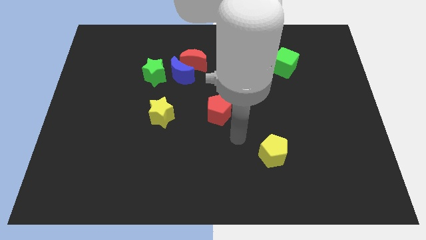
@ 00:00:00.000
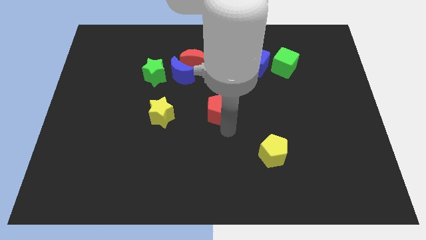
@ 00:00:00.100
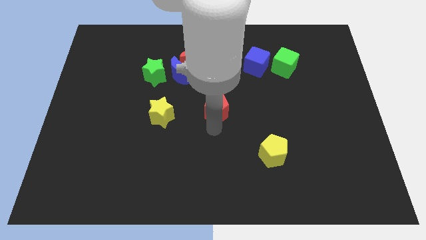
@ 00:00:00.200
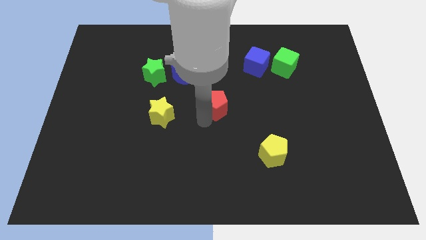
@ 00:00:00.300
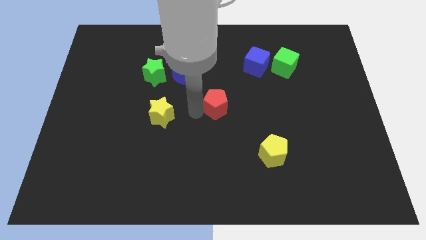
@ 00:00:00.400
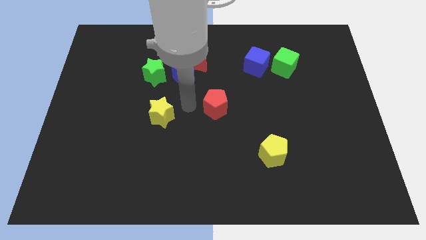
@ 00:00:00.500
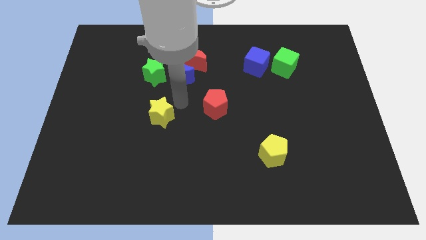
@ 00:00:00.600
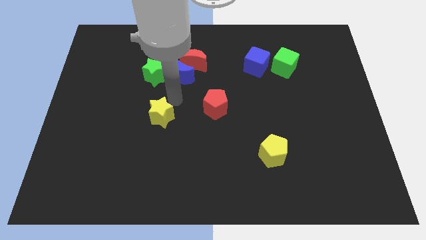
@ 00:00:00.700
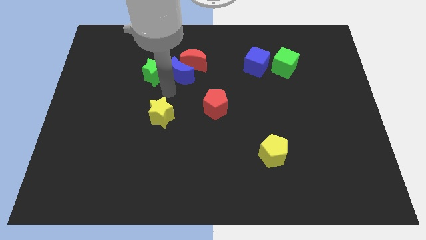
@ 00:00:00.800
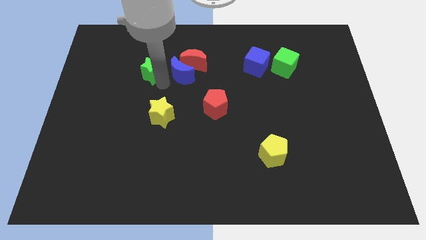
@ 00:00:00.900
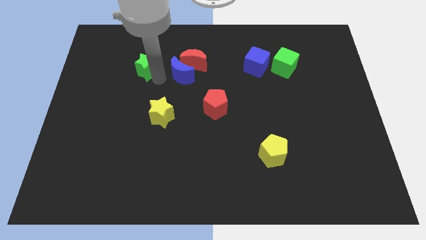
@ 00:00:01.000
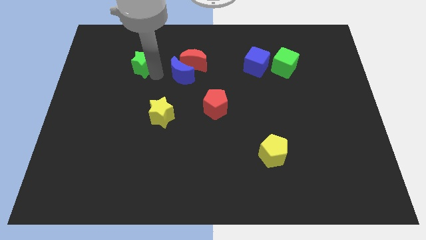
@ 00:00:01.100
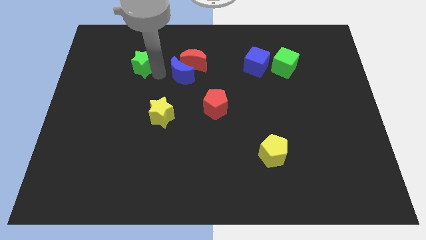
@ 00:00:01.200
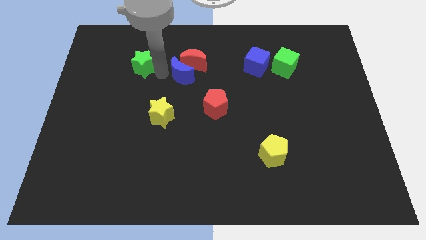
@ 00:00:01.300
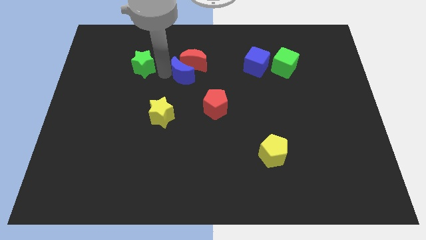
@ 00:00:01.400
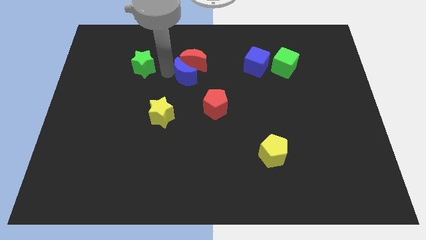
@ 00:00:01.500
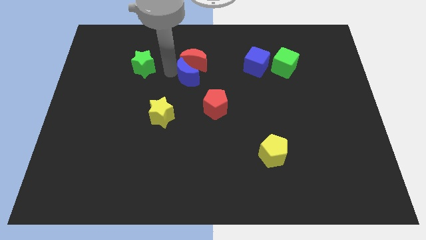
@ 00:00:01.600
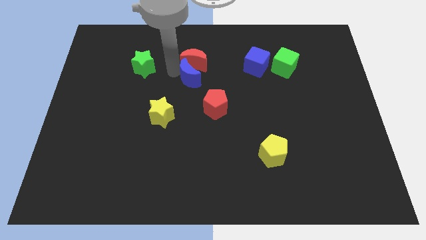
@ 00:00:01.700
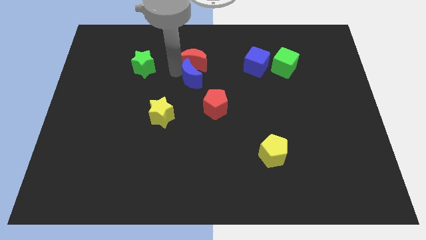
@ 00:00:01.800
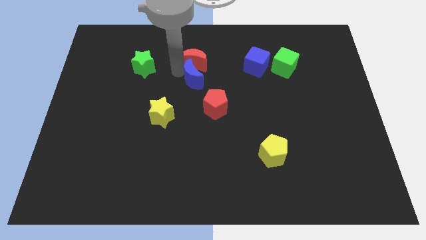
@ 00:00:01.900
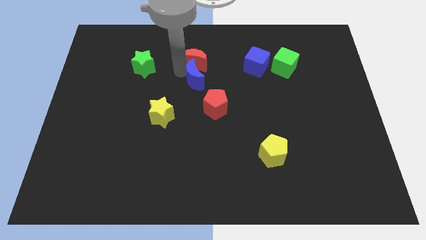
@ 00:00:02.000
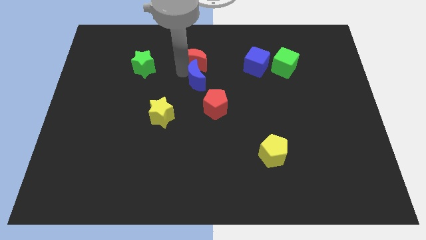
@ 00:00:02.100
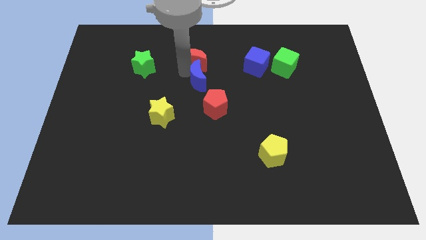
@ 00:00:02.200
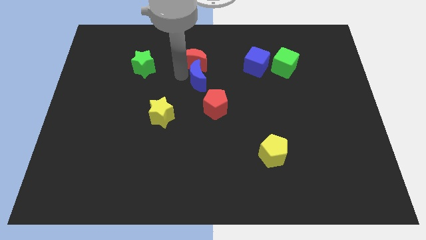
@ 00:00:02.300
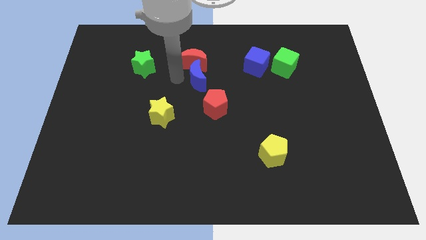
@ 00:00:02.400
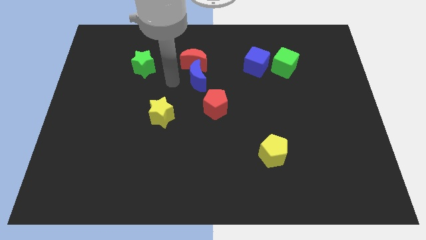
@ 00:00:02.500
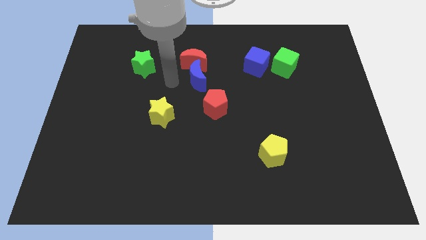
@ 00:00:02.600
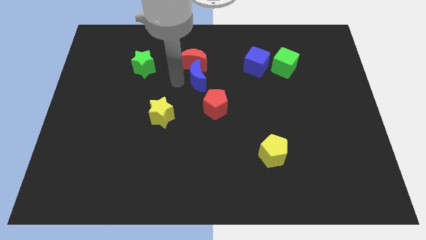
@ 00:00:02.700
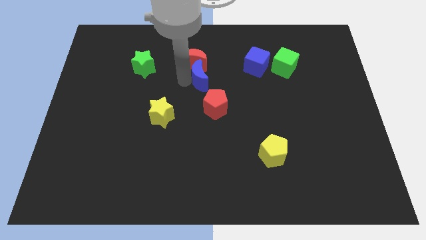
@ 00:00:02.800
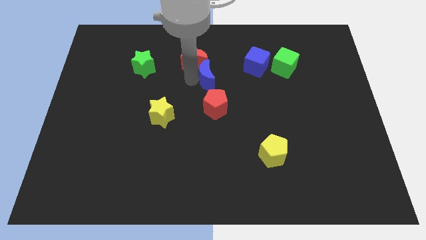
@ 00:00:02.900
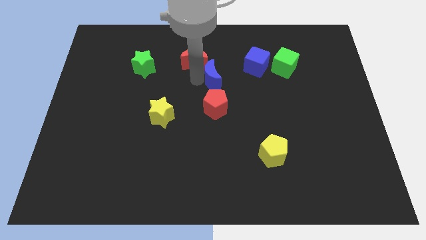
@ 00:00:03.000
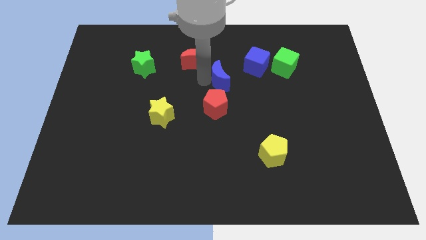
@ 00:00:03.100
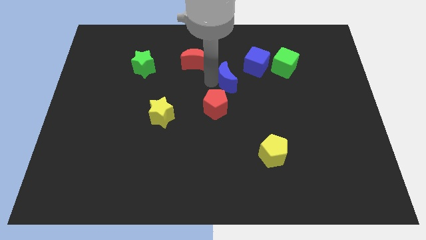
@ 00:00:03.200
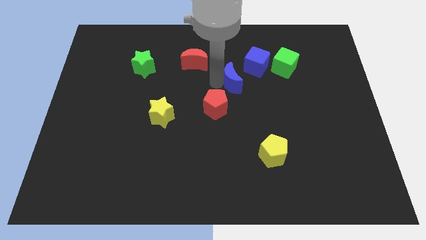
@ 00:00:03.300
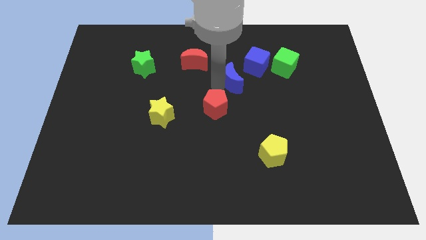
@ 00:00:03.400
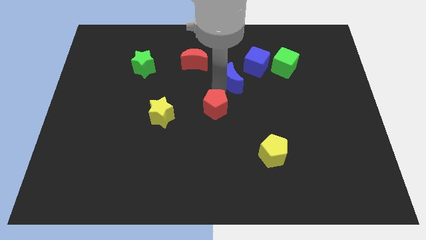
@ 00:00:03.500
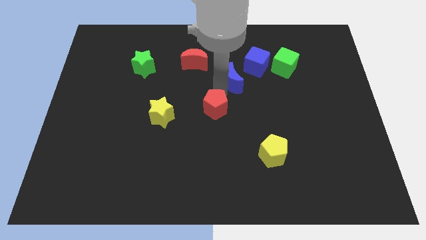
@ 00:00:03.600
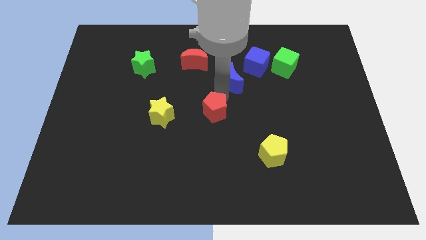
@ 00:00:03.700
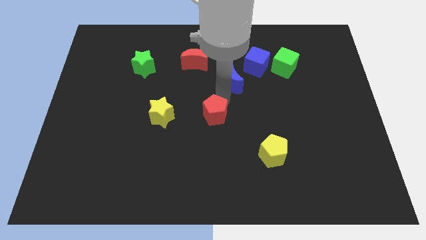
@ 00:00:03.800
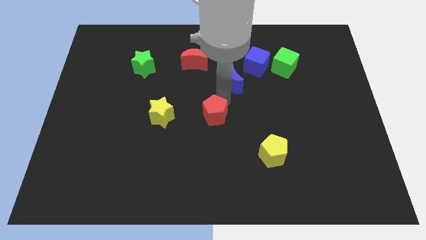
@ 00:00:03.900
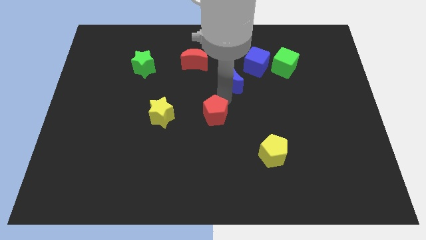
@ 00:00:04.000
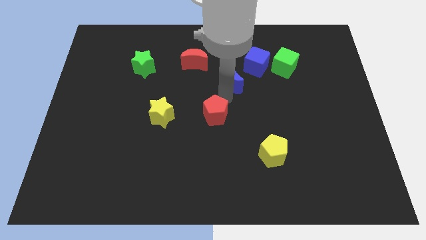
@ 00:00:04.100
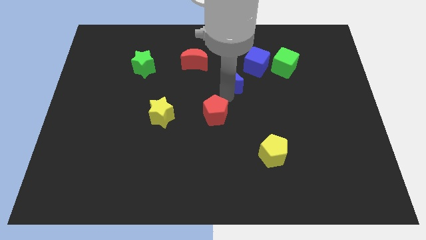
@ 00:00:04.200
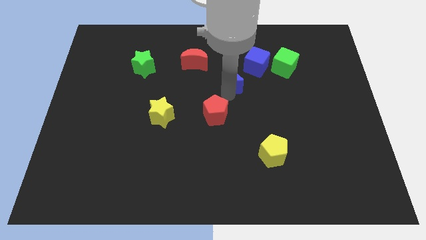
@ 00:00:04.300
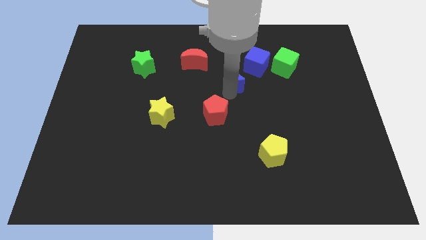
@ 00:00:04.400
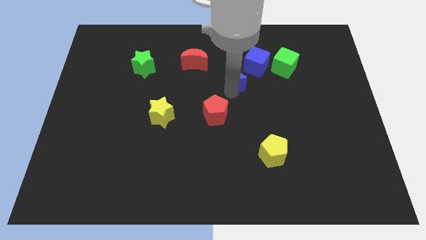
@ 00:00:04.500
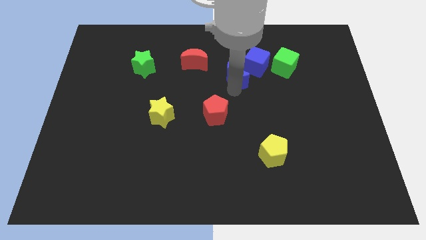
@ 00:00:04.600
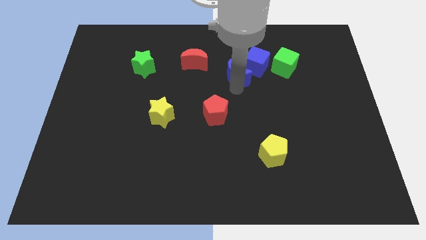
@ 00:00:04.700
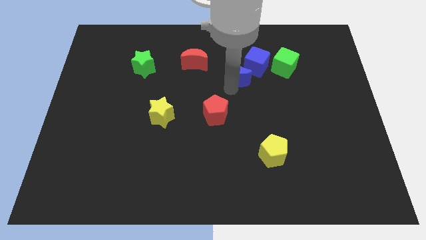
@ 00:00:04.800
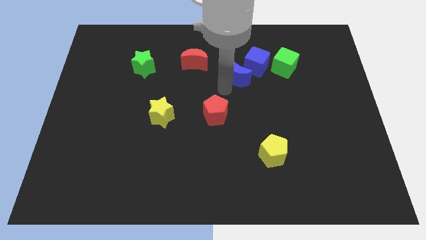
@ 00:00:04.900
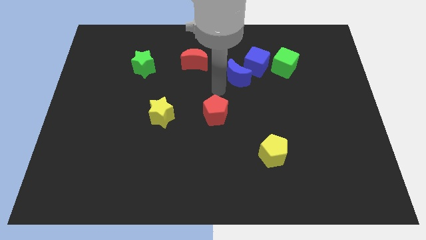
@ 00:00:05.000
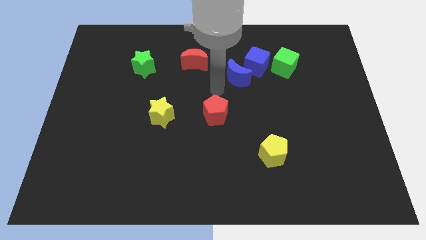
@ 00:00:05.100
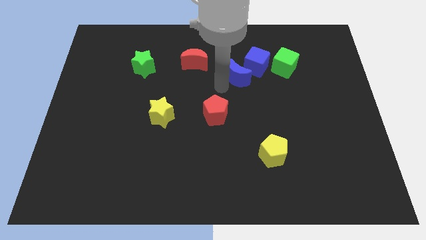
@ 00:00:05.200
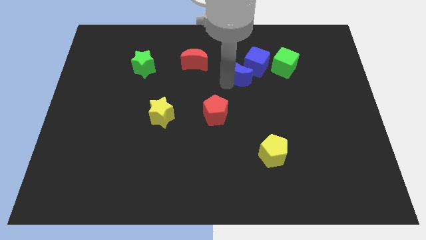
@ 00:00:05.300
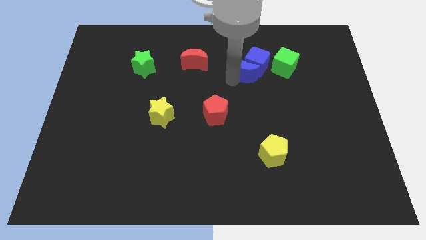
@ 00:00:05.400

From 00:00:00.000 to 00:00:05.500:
push the blue moon next to the blue cube

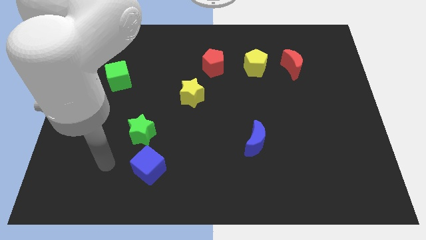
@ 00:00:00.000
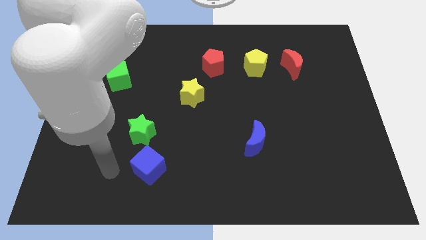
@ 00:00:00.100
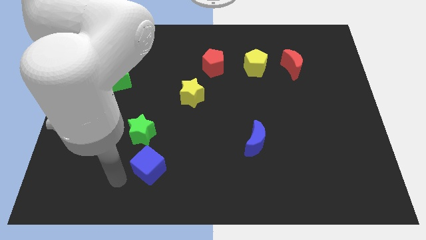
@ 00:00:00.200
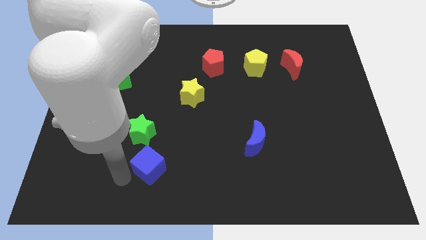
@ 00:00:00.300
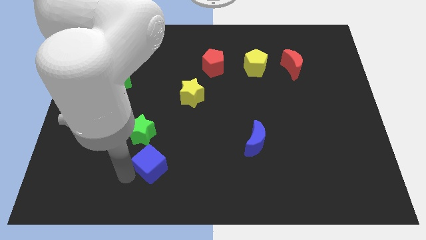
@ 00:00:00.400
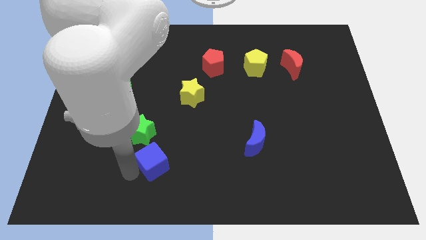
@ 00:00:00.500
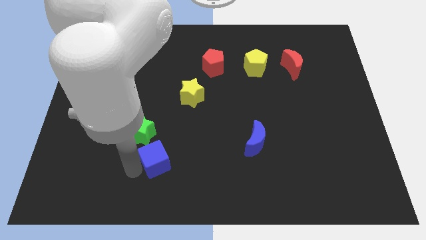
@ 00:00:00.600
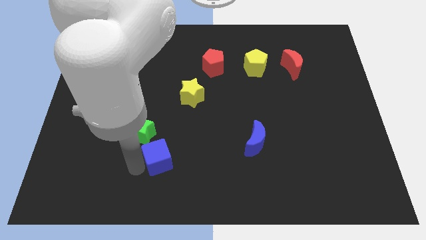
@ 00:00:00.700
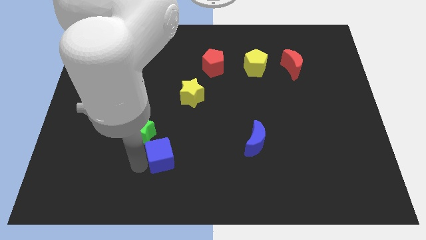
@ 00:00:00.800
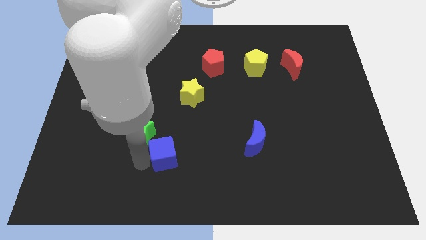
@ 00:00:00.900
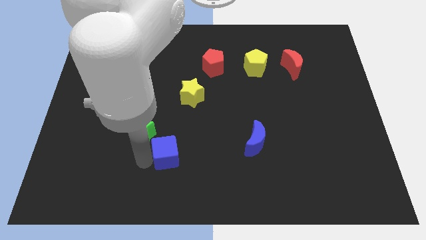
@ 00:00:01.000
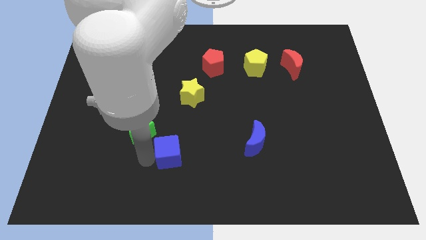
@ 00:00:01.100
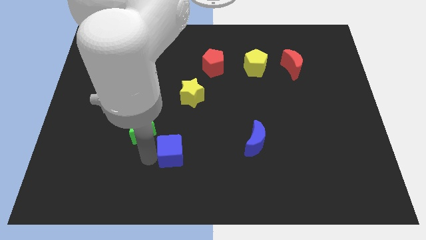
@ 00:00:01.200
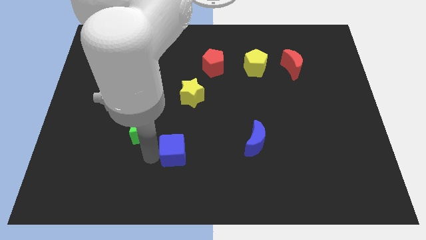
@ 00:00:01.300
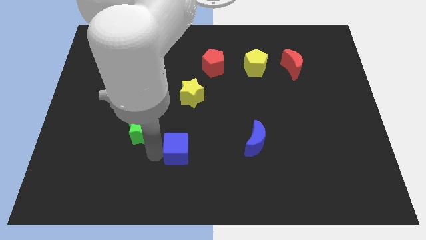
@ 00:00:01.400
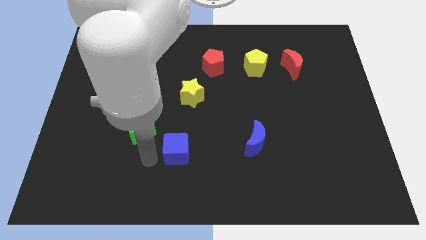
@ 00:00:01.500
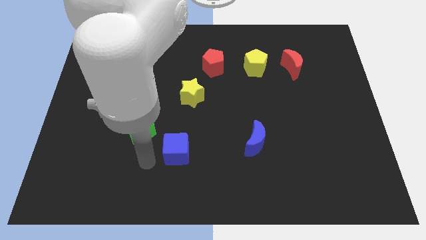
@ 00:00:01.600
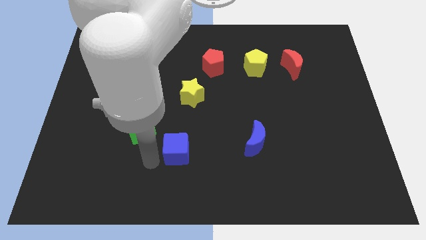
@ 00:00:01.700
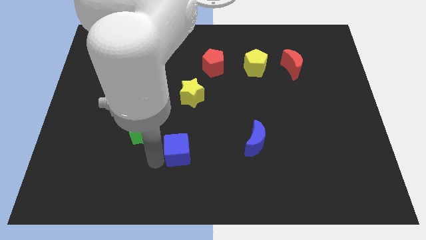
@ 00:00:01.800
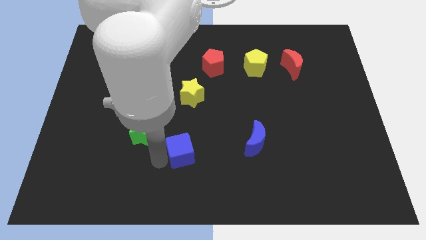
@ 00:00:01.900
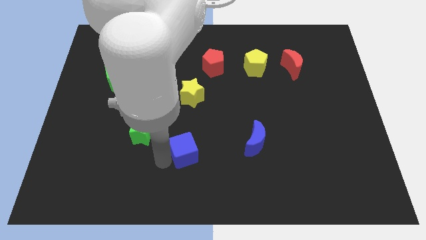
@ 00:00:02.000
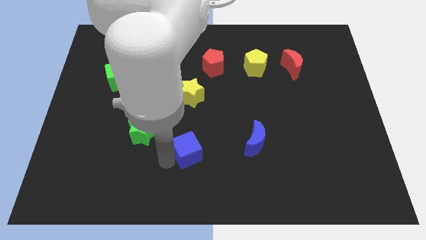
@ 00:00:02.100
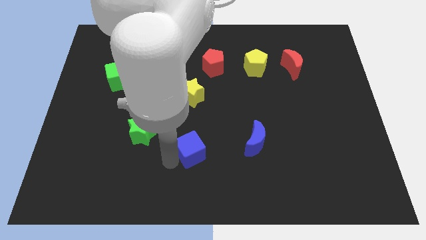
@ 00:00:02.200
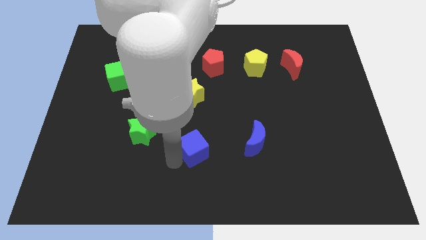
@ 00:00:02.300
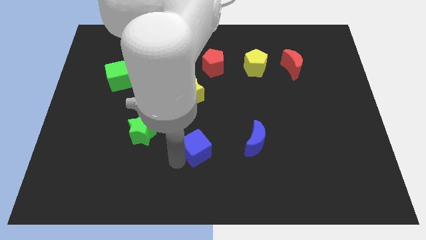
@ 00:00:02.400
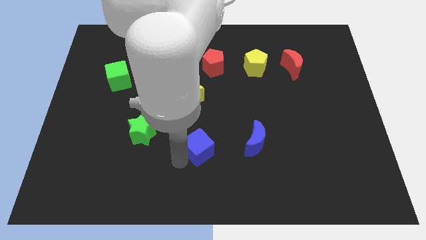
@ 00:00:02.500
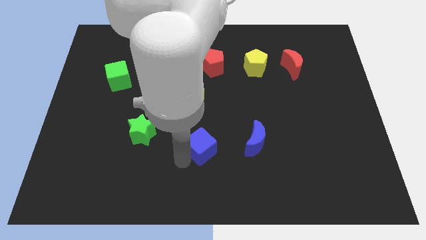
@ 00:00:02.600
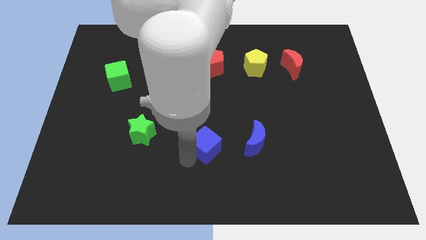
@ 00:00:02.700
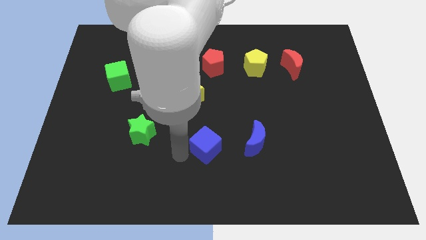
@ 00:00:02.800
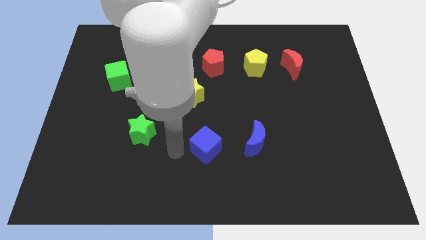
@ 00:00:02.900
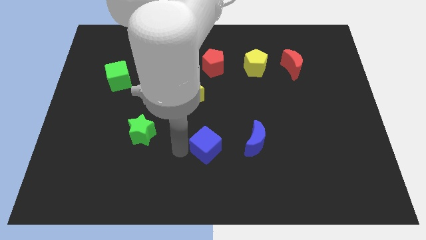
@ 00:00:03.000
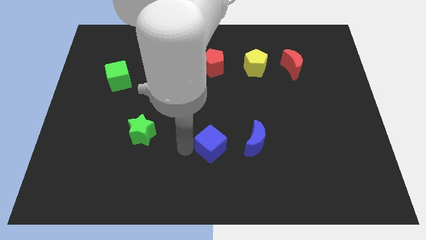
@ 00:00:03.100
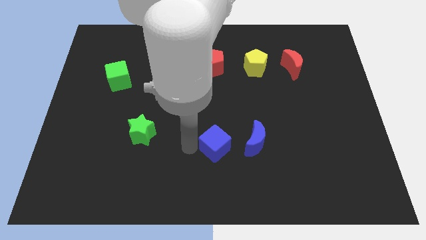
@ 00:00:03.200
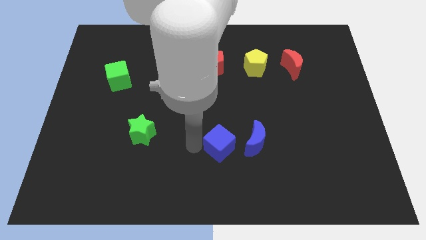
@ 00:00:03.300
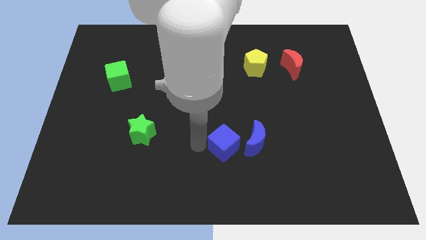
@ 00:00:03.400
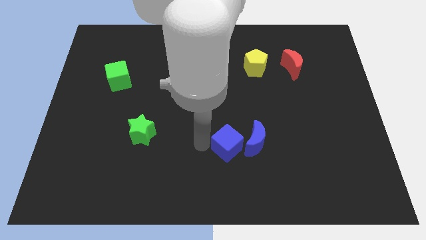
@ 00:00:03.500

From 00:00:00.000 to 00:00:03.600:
push the blue cube towards the blue moon
